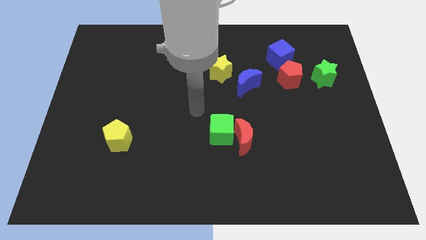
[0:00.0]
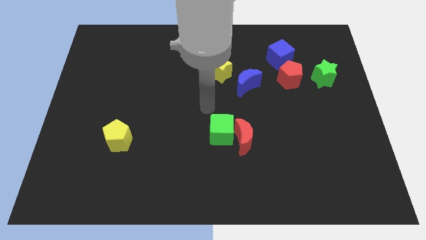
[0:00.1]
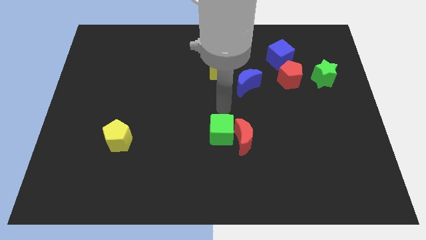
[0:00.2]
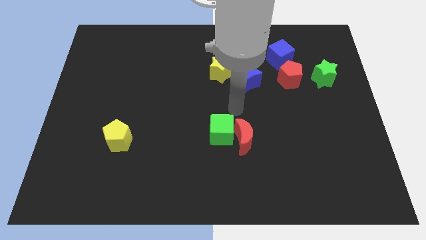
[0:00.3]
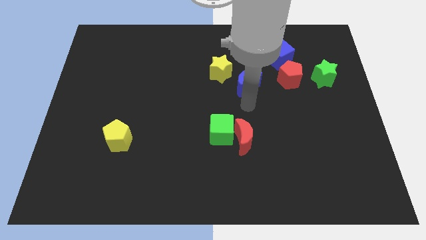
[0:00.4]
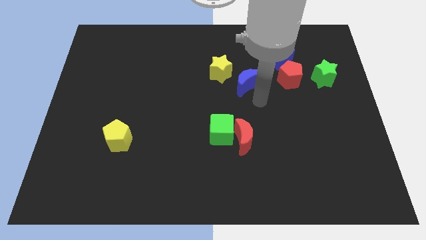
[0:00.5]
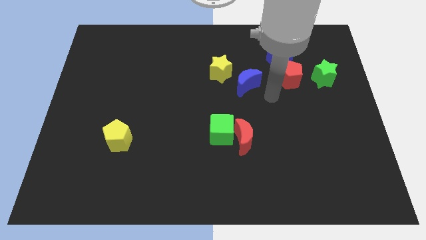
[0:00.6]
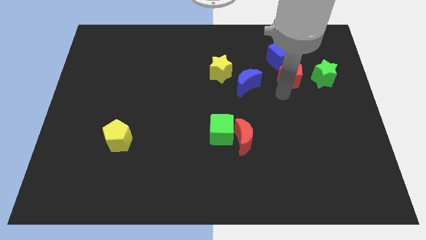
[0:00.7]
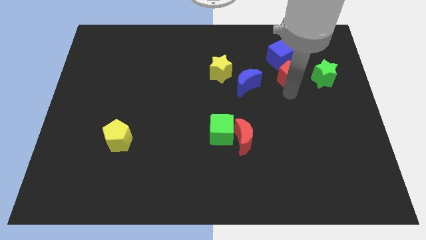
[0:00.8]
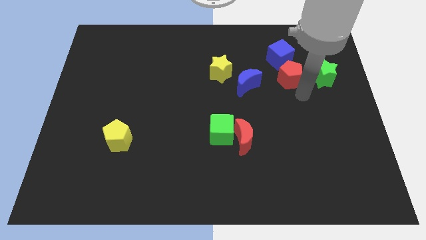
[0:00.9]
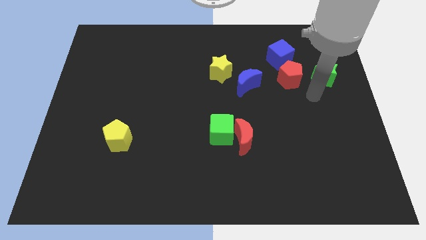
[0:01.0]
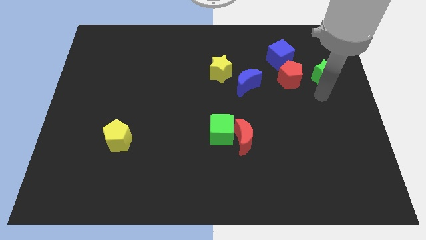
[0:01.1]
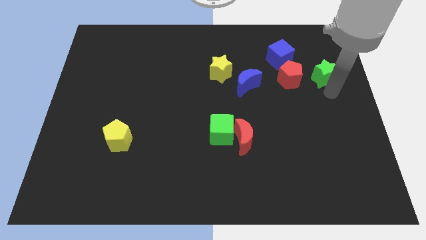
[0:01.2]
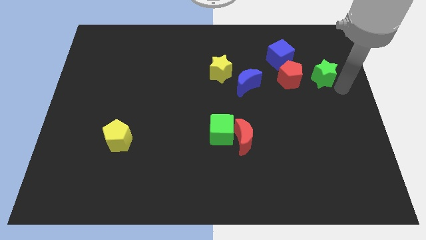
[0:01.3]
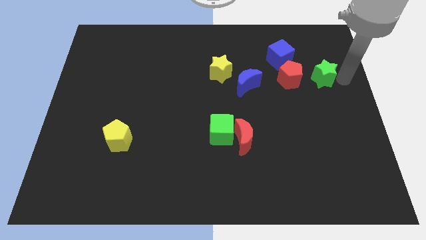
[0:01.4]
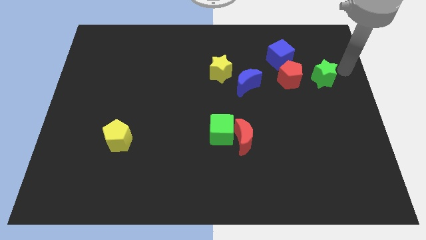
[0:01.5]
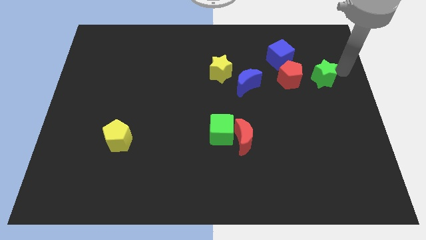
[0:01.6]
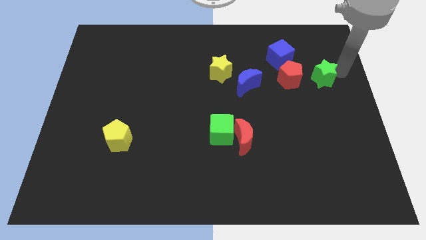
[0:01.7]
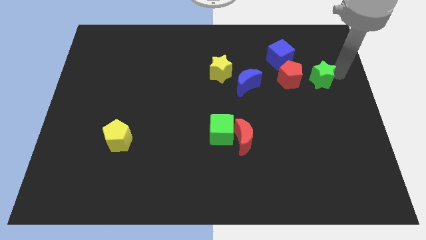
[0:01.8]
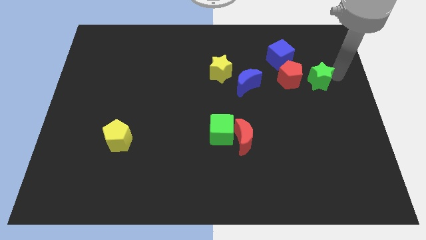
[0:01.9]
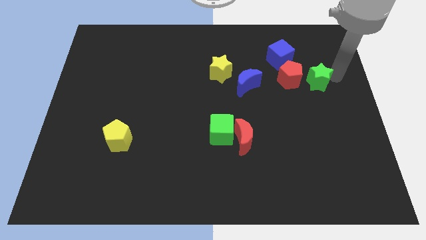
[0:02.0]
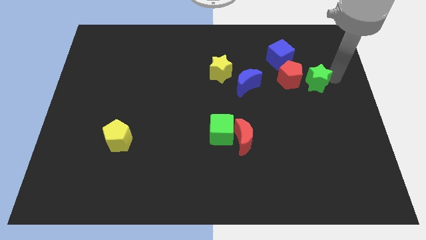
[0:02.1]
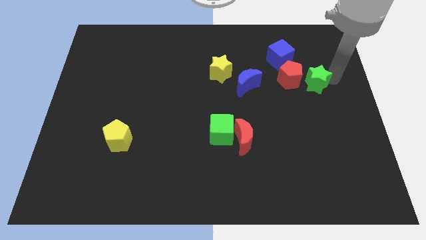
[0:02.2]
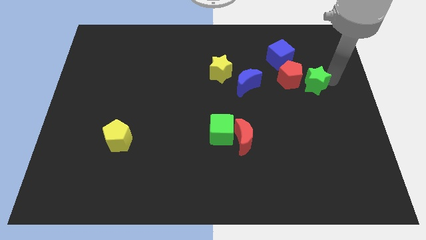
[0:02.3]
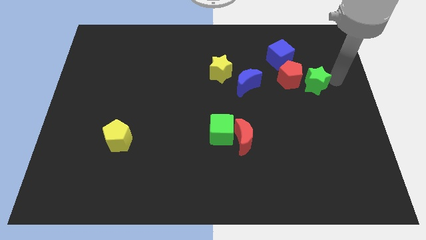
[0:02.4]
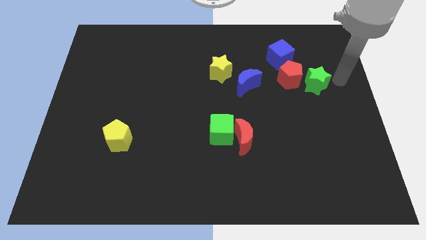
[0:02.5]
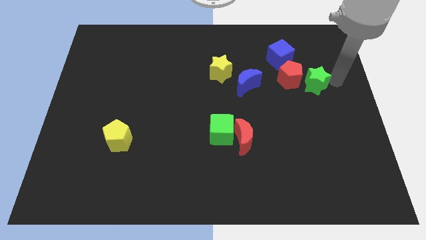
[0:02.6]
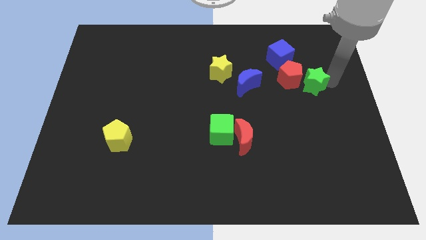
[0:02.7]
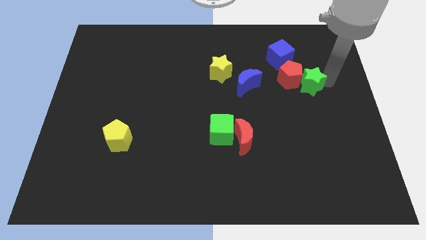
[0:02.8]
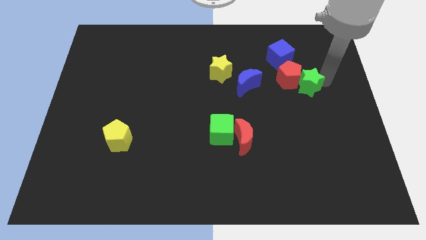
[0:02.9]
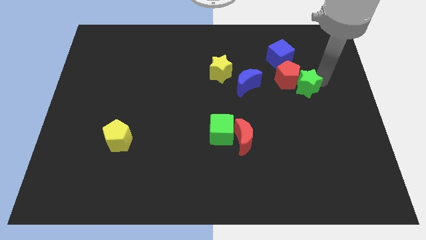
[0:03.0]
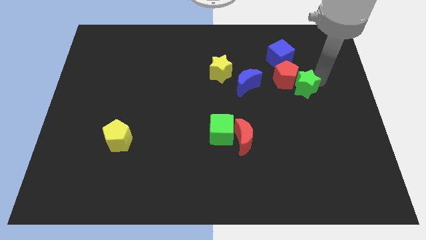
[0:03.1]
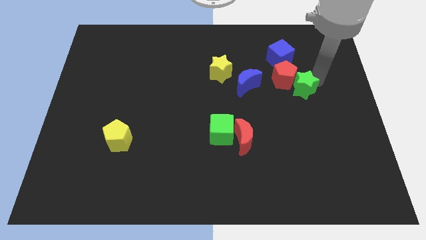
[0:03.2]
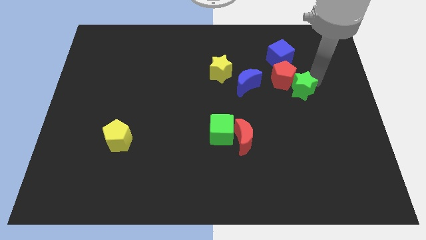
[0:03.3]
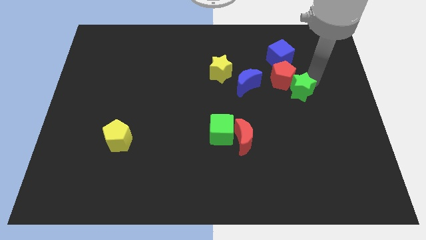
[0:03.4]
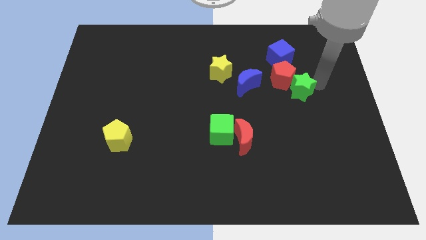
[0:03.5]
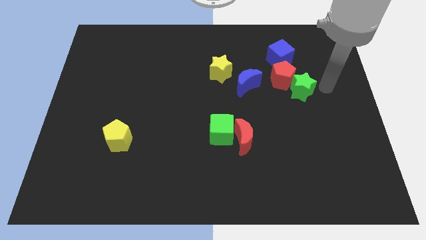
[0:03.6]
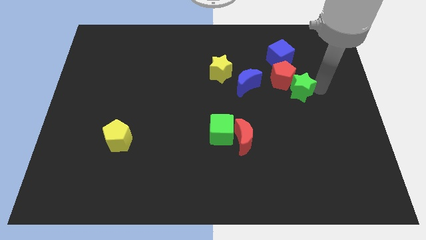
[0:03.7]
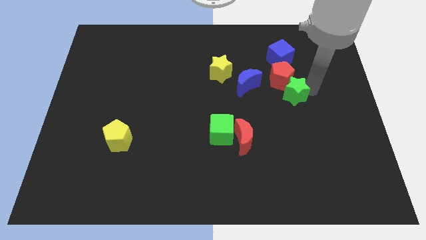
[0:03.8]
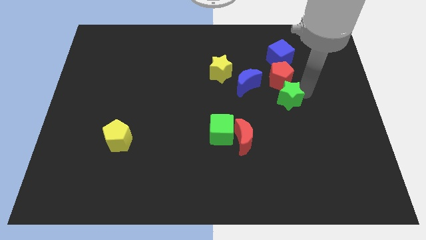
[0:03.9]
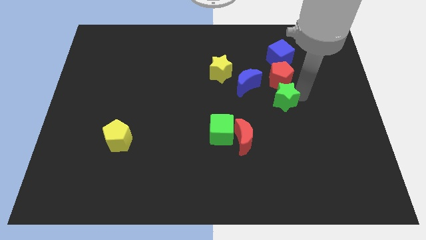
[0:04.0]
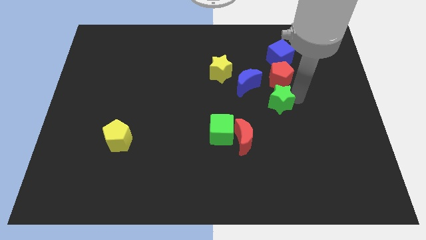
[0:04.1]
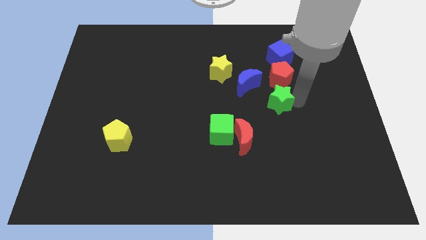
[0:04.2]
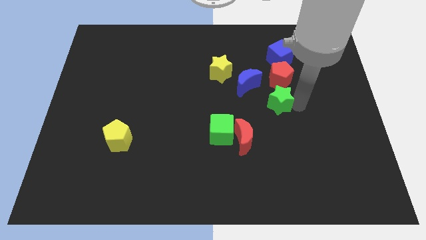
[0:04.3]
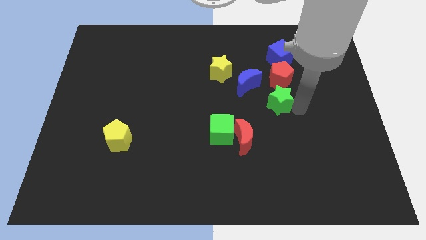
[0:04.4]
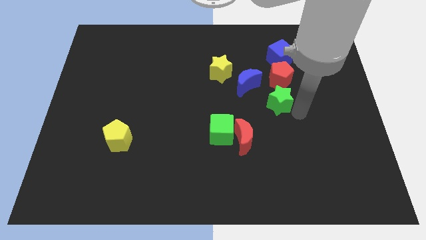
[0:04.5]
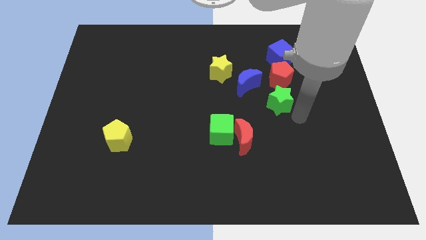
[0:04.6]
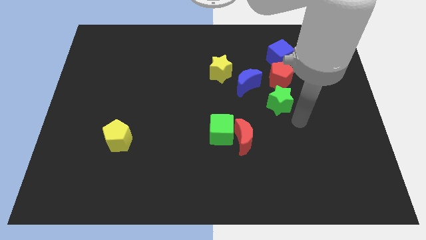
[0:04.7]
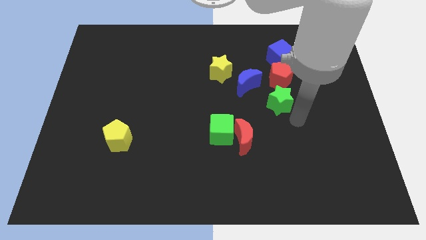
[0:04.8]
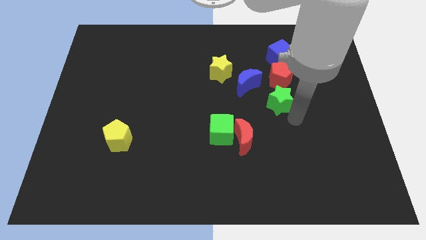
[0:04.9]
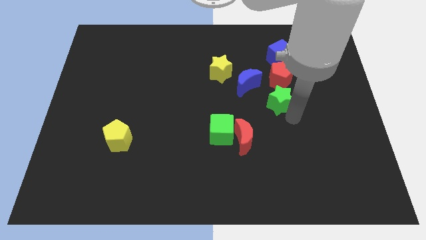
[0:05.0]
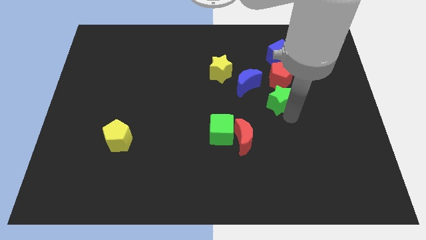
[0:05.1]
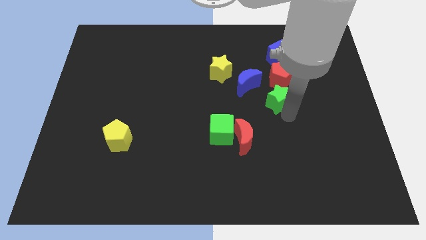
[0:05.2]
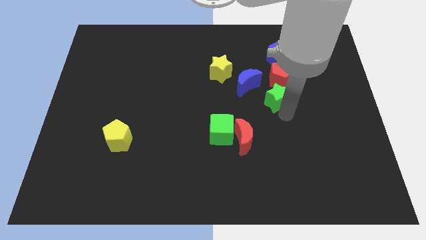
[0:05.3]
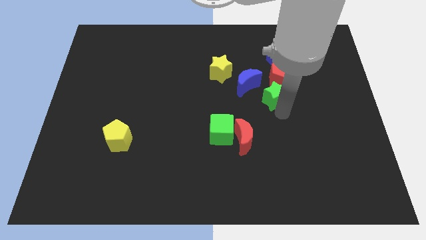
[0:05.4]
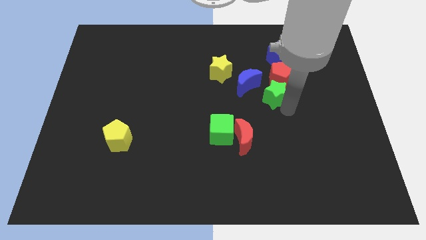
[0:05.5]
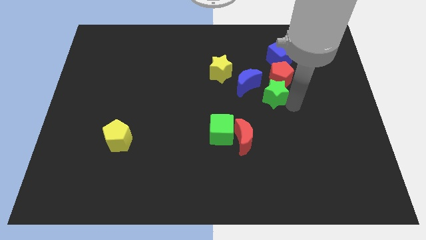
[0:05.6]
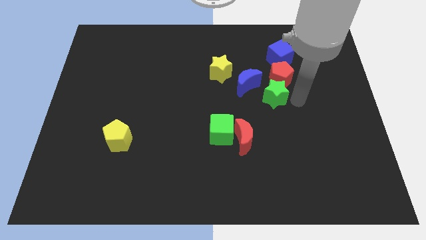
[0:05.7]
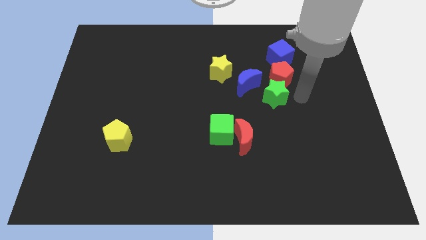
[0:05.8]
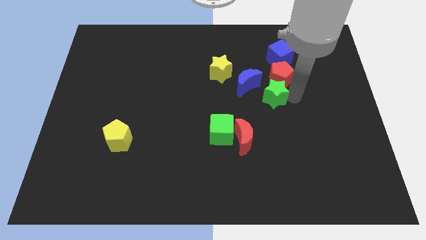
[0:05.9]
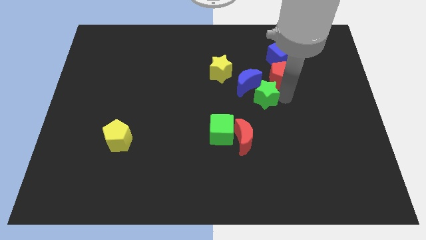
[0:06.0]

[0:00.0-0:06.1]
push the green star to the middle of the board
